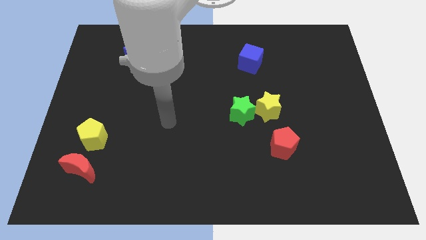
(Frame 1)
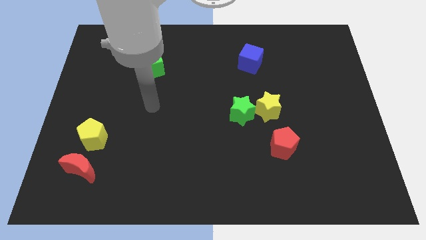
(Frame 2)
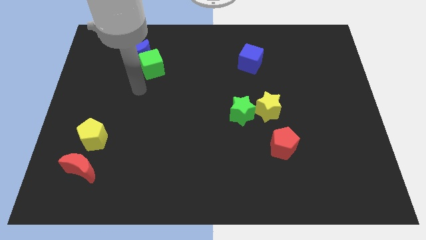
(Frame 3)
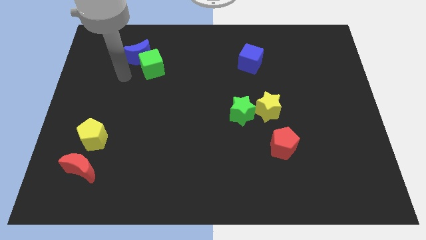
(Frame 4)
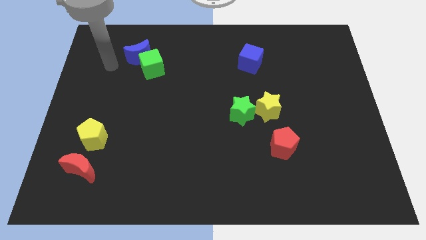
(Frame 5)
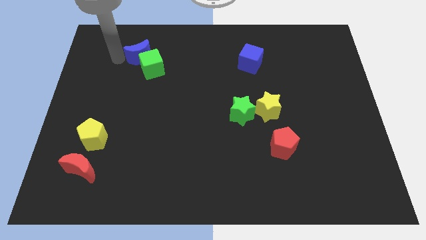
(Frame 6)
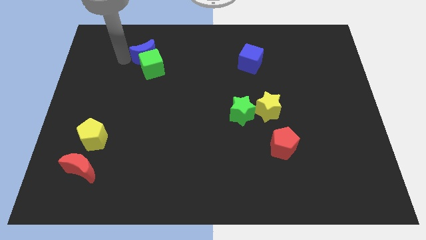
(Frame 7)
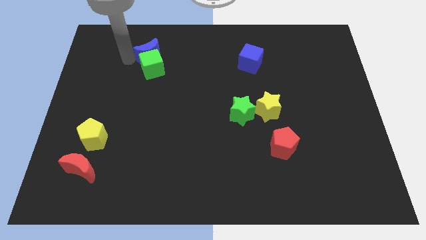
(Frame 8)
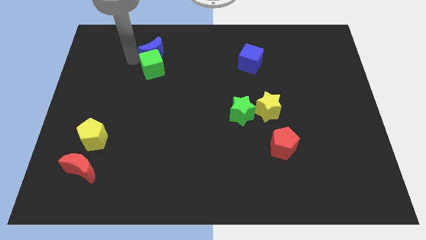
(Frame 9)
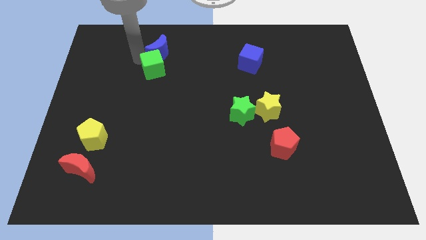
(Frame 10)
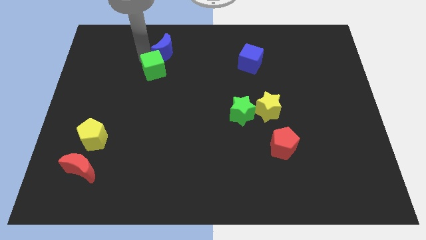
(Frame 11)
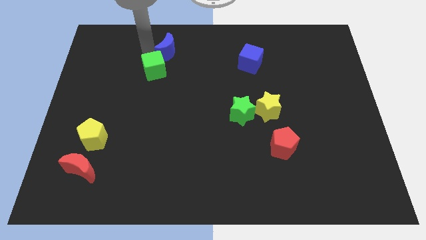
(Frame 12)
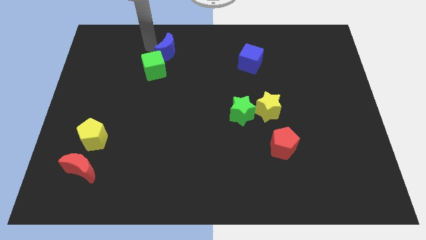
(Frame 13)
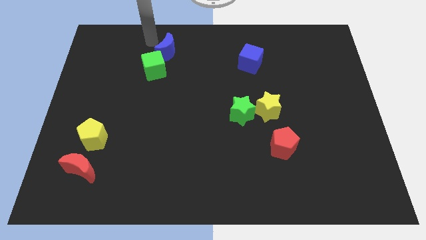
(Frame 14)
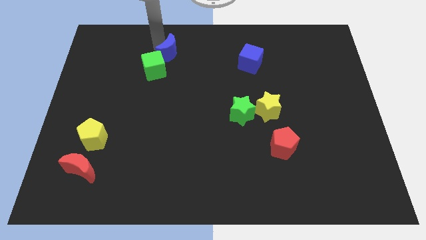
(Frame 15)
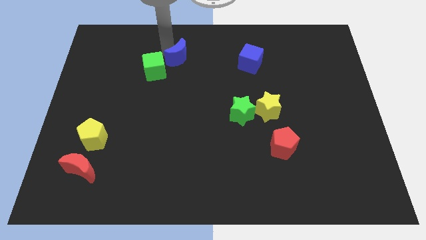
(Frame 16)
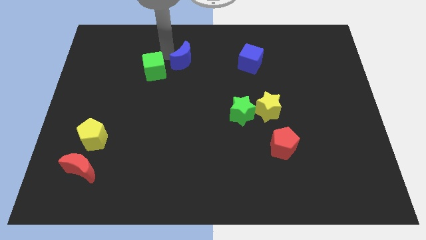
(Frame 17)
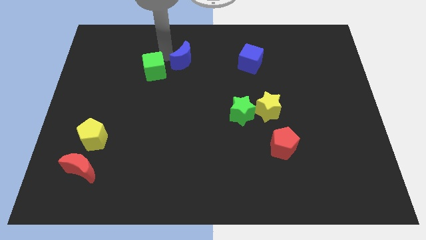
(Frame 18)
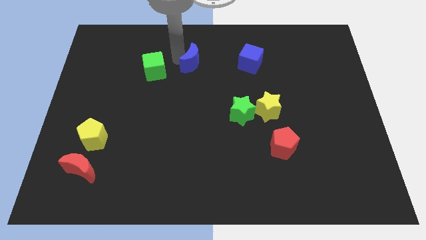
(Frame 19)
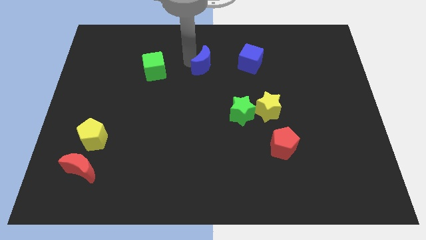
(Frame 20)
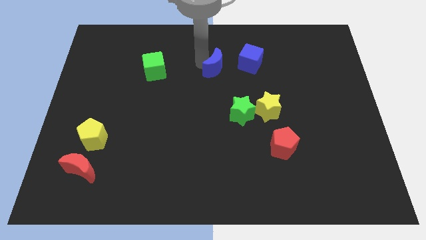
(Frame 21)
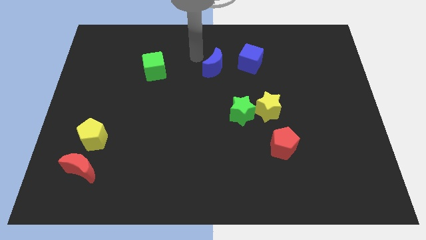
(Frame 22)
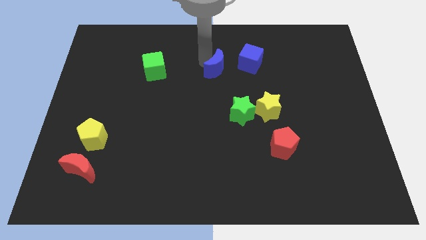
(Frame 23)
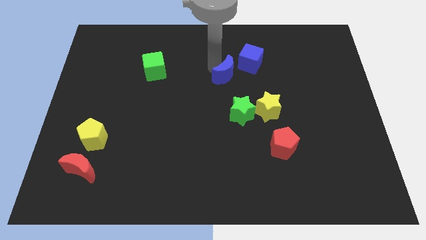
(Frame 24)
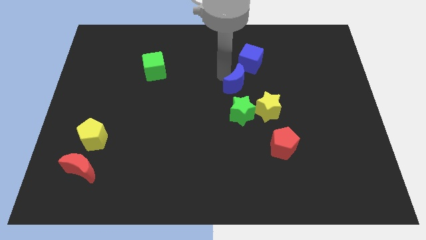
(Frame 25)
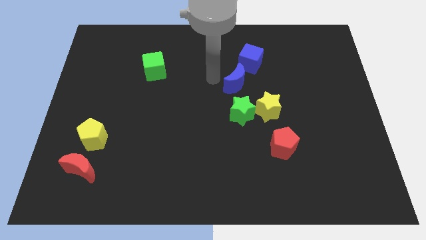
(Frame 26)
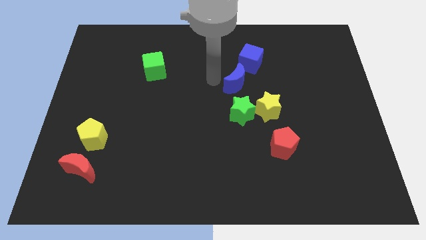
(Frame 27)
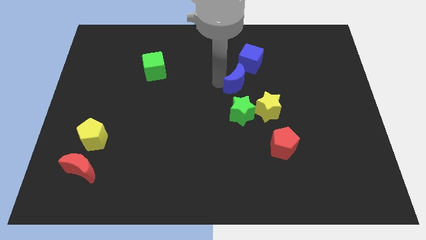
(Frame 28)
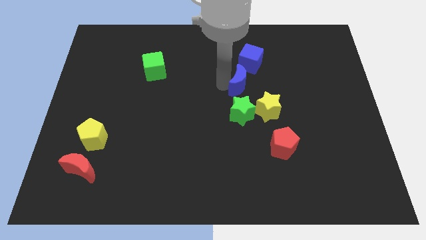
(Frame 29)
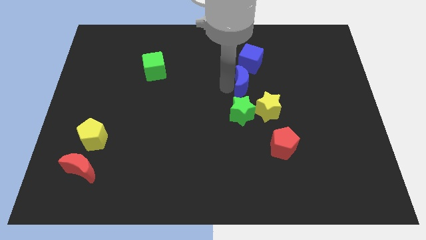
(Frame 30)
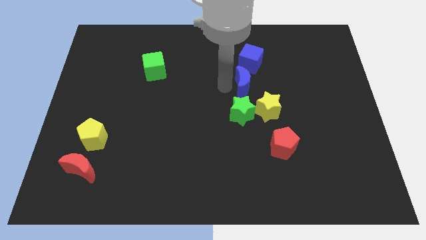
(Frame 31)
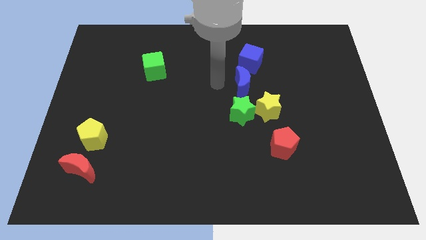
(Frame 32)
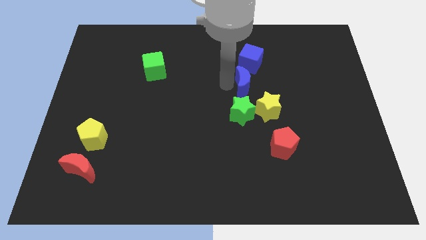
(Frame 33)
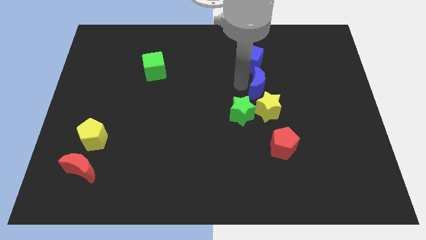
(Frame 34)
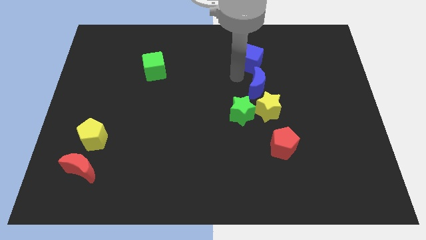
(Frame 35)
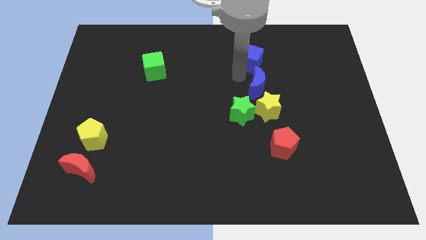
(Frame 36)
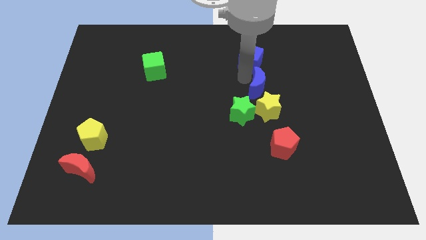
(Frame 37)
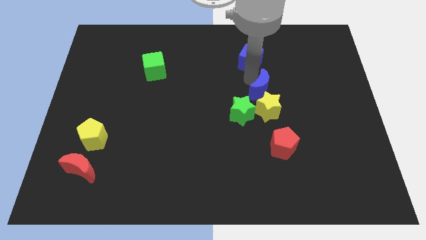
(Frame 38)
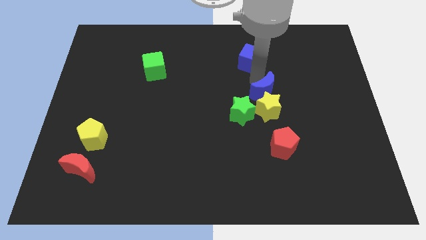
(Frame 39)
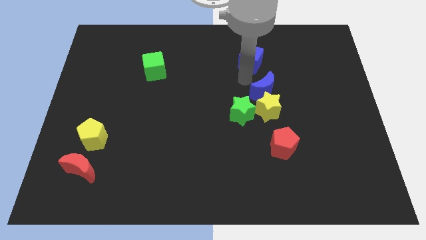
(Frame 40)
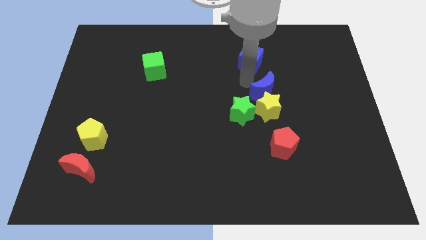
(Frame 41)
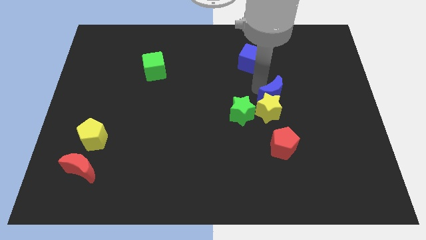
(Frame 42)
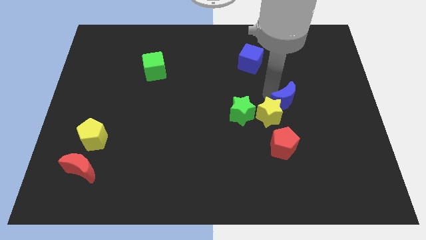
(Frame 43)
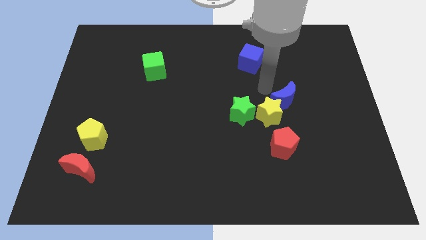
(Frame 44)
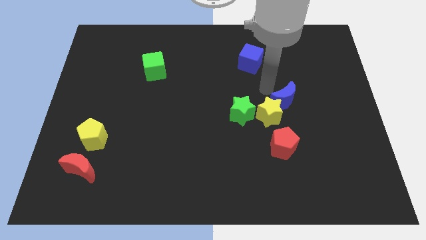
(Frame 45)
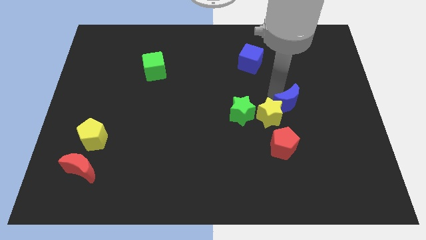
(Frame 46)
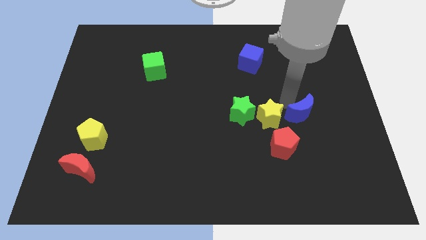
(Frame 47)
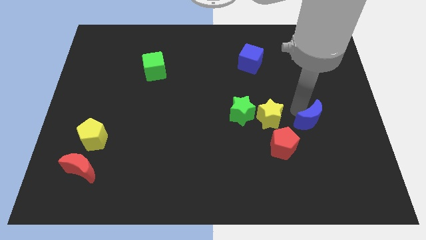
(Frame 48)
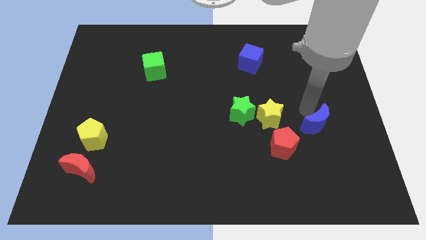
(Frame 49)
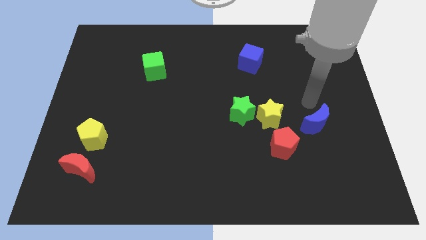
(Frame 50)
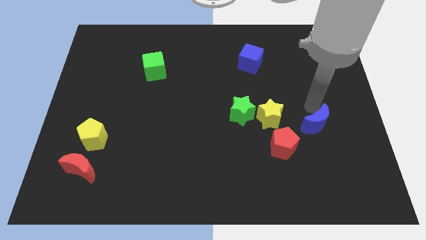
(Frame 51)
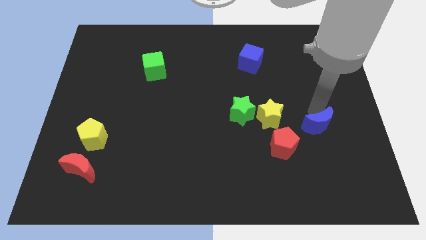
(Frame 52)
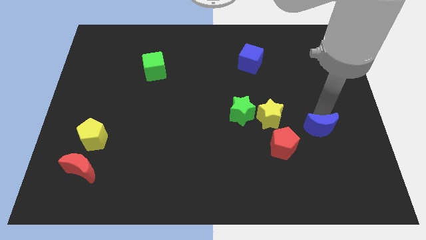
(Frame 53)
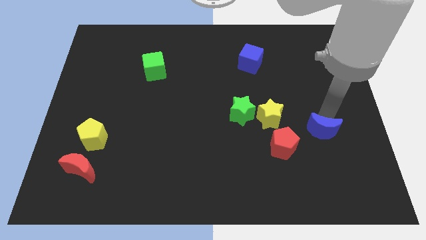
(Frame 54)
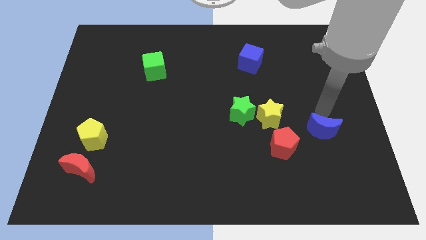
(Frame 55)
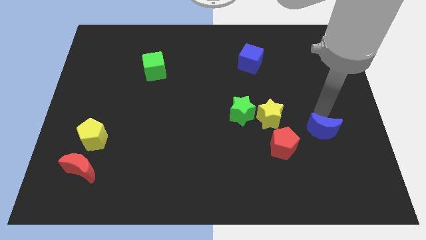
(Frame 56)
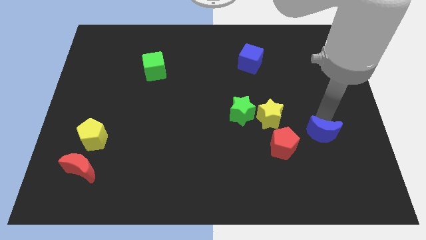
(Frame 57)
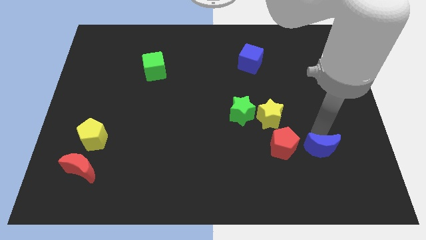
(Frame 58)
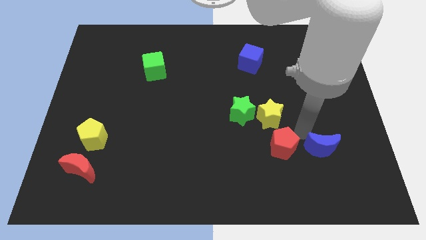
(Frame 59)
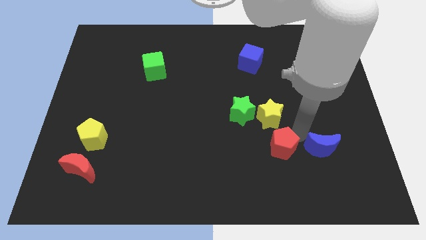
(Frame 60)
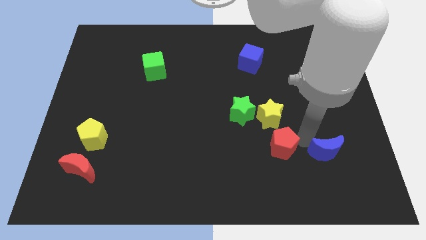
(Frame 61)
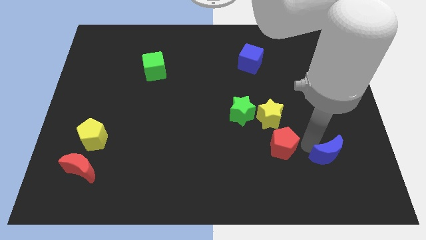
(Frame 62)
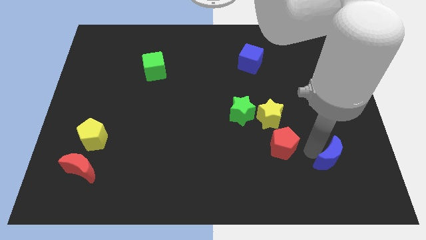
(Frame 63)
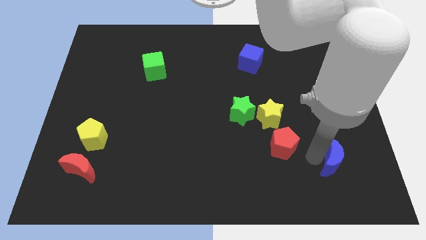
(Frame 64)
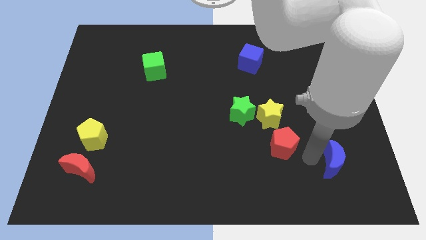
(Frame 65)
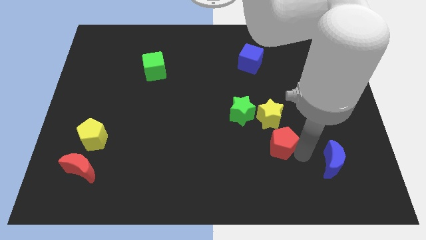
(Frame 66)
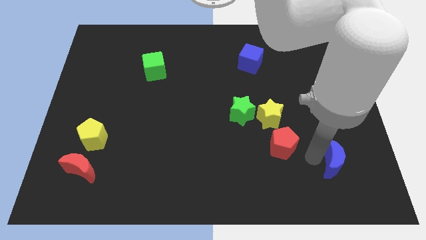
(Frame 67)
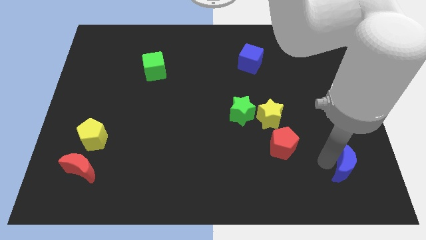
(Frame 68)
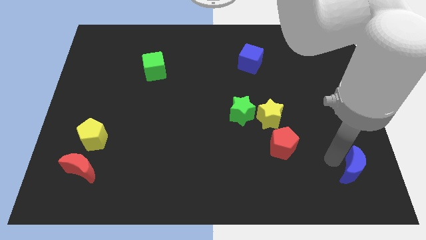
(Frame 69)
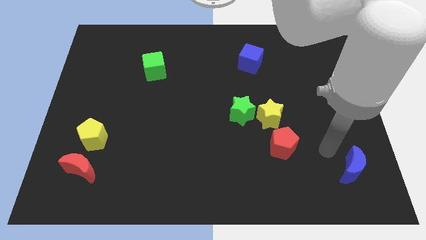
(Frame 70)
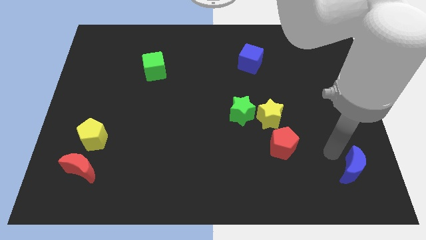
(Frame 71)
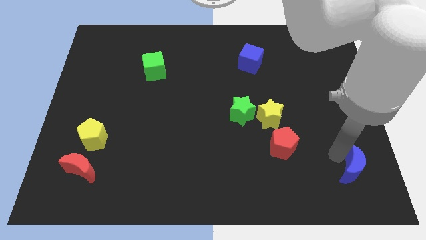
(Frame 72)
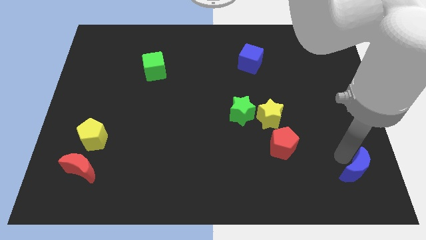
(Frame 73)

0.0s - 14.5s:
put the blue moon to the lower right corner
